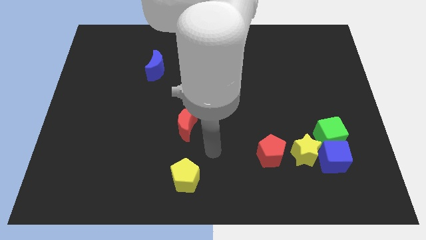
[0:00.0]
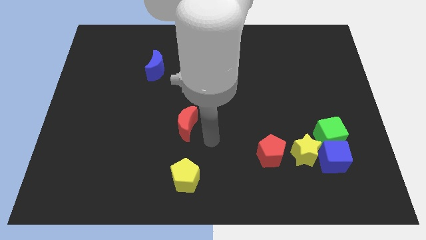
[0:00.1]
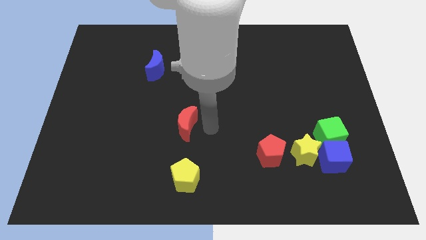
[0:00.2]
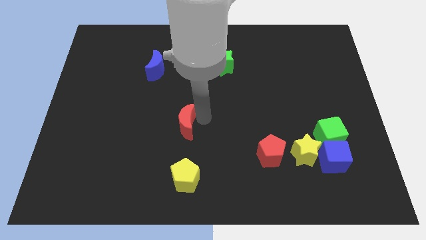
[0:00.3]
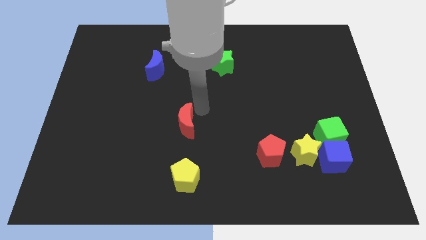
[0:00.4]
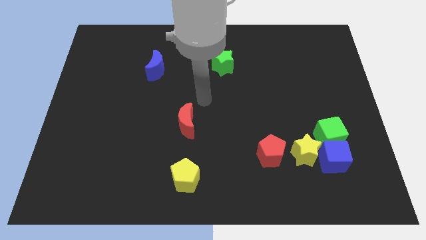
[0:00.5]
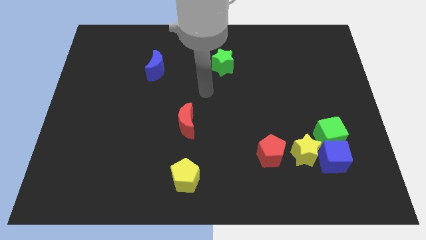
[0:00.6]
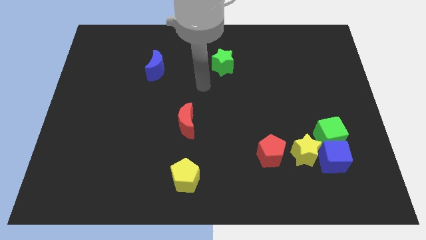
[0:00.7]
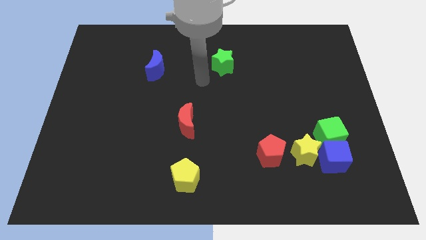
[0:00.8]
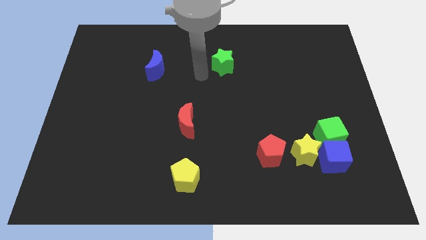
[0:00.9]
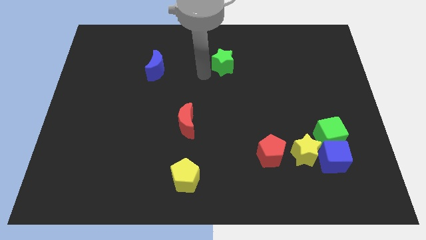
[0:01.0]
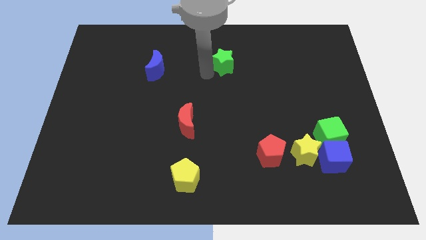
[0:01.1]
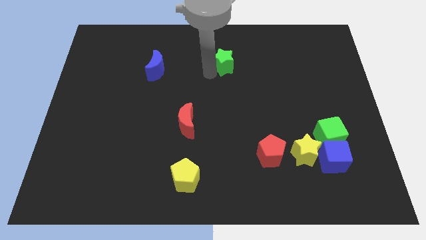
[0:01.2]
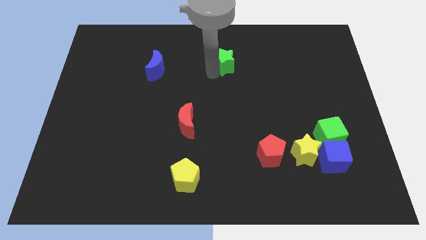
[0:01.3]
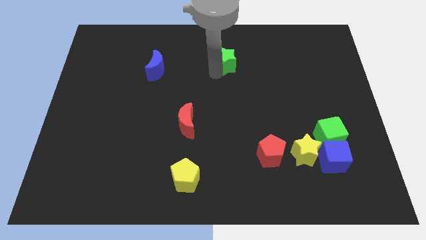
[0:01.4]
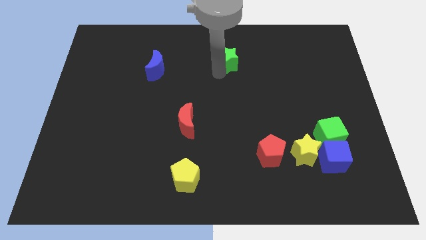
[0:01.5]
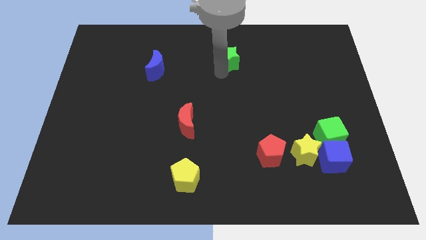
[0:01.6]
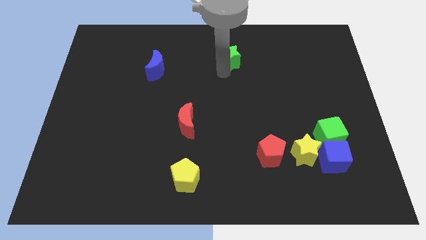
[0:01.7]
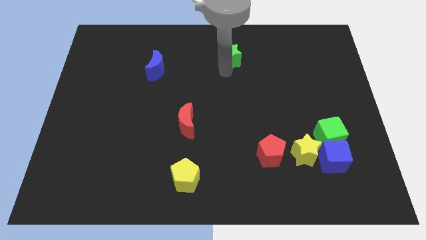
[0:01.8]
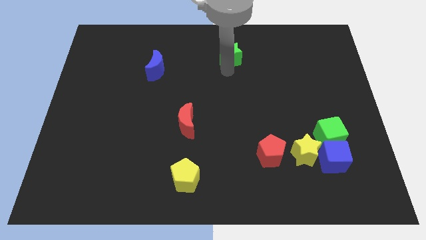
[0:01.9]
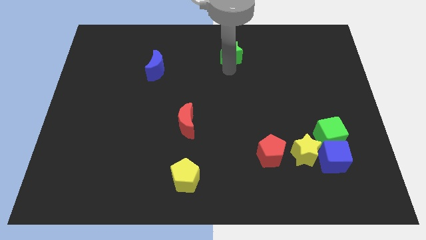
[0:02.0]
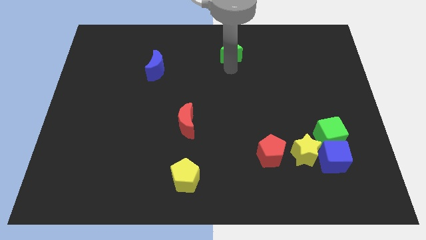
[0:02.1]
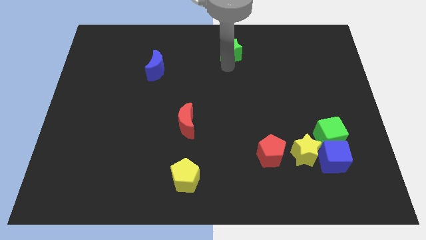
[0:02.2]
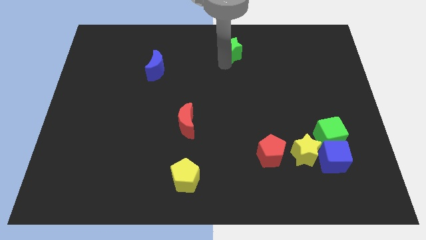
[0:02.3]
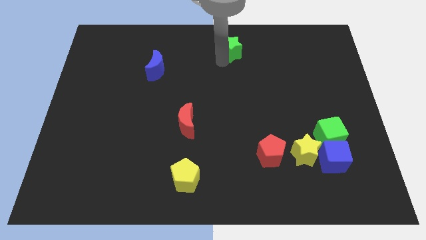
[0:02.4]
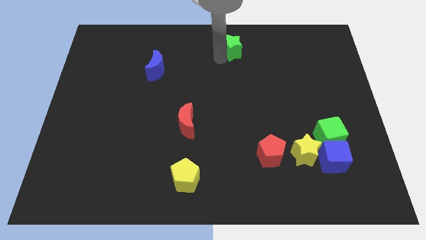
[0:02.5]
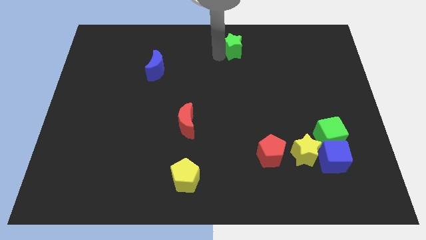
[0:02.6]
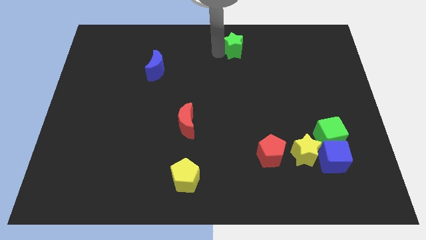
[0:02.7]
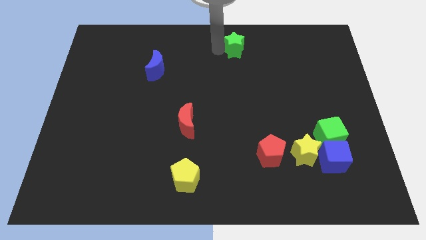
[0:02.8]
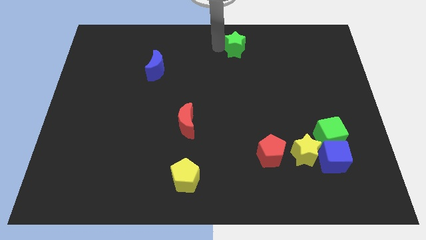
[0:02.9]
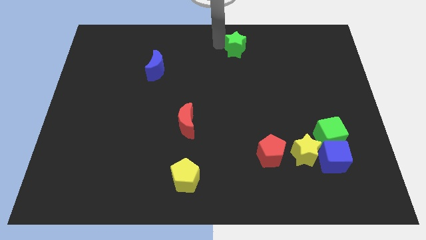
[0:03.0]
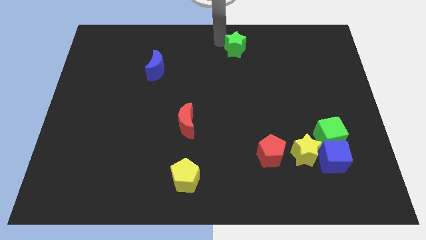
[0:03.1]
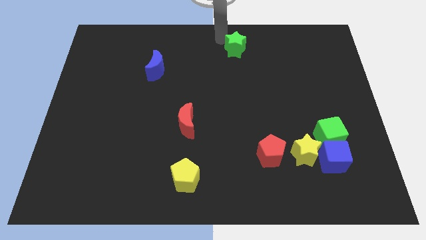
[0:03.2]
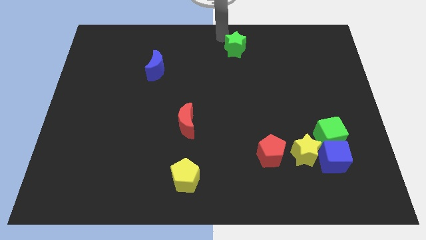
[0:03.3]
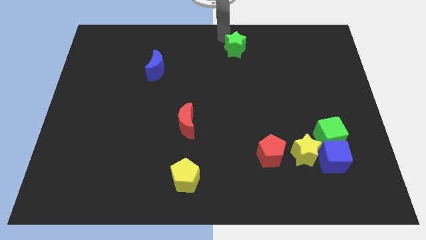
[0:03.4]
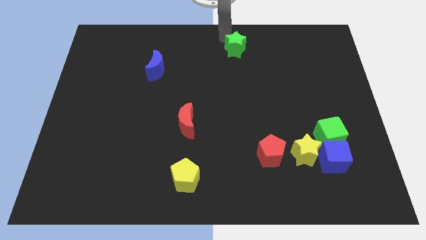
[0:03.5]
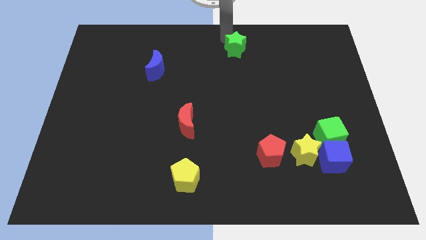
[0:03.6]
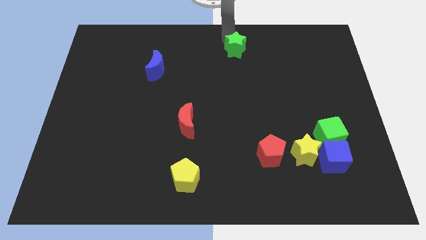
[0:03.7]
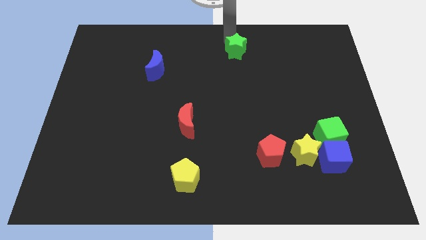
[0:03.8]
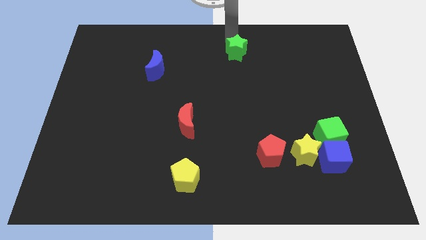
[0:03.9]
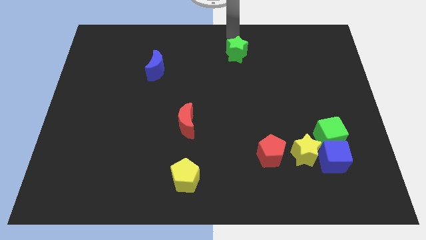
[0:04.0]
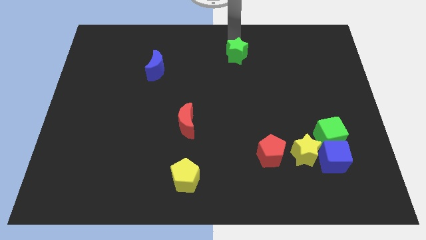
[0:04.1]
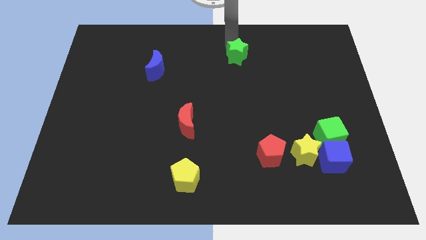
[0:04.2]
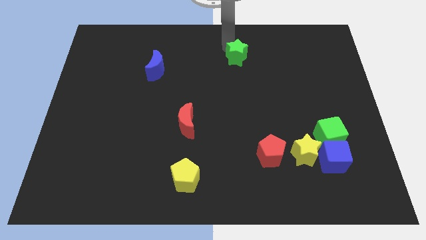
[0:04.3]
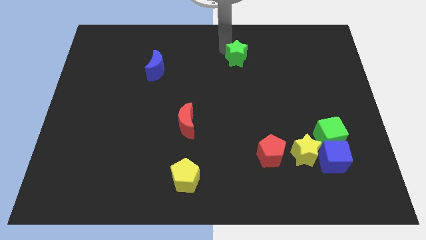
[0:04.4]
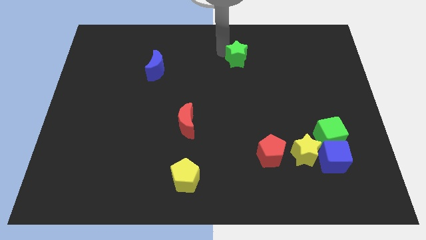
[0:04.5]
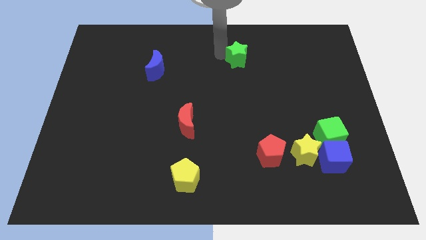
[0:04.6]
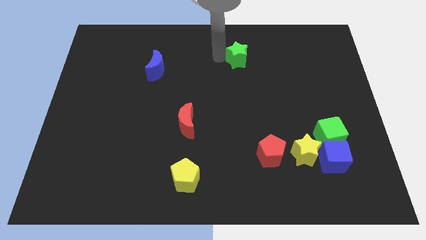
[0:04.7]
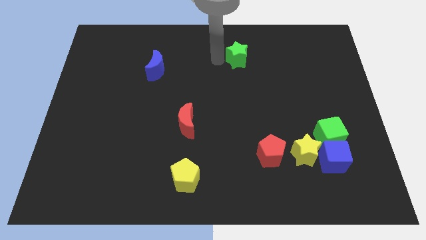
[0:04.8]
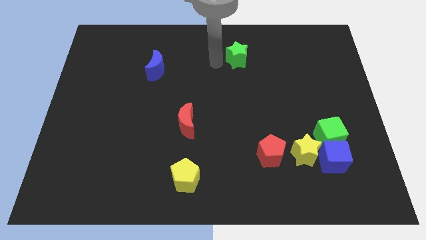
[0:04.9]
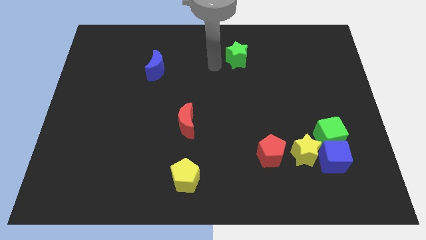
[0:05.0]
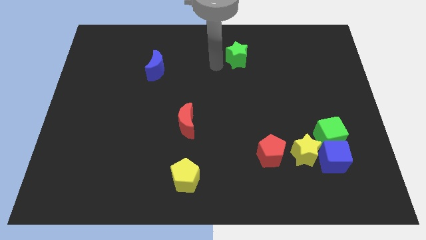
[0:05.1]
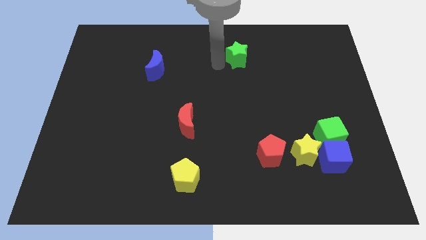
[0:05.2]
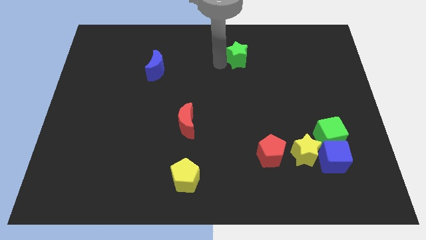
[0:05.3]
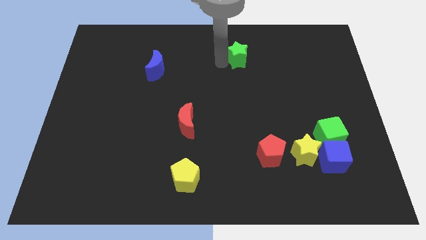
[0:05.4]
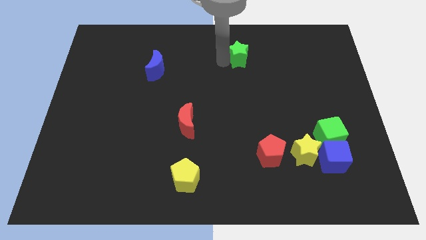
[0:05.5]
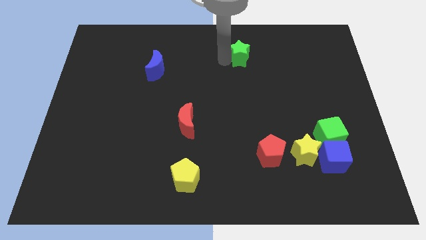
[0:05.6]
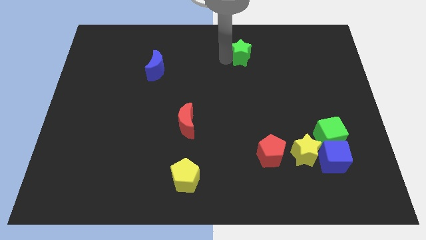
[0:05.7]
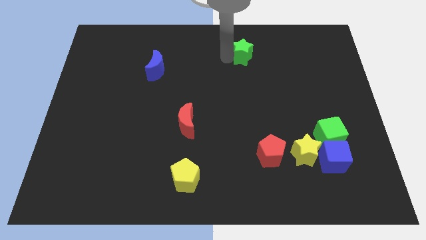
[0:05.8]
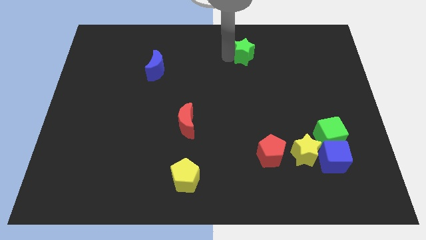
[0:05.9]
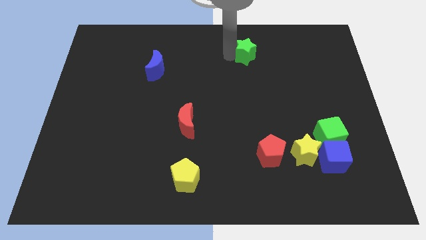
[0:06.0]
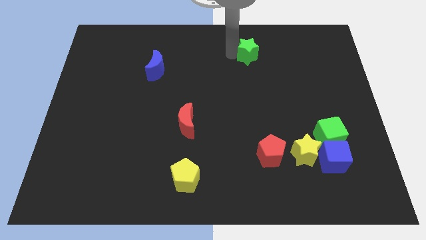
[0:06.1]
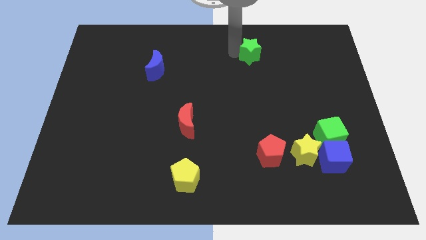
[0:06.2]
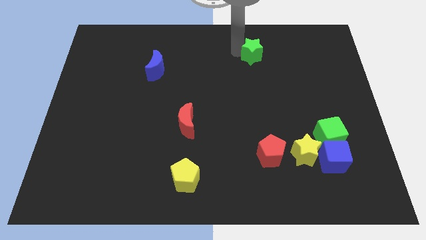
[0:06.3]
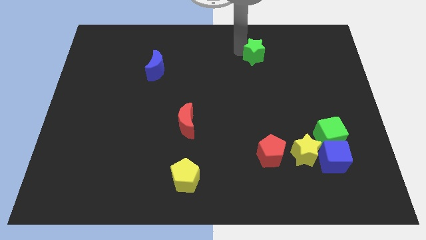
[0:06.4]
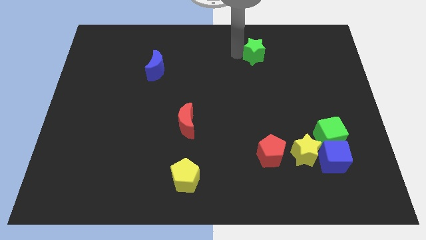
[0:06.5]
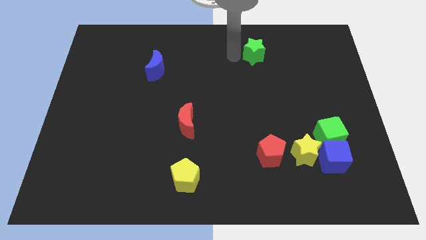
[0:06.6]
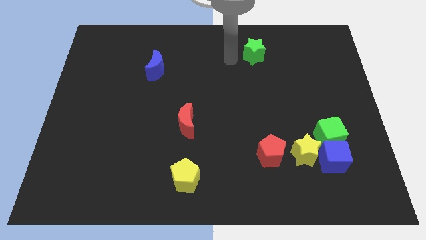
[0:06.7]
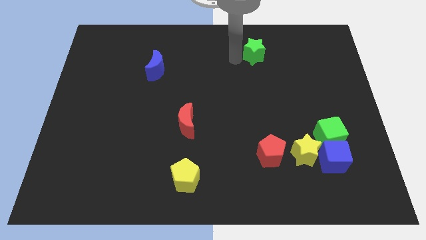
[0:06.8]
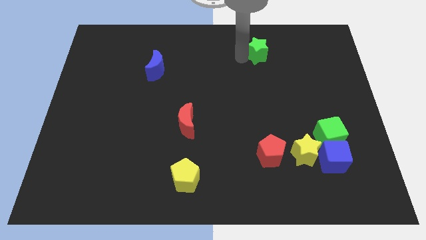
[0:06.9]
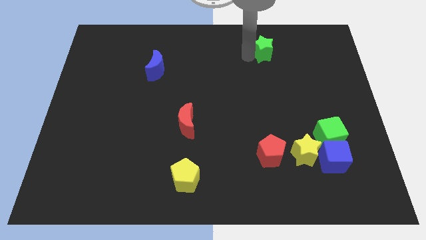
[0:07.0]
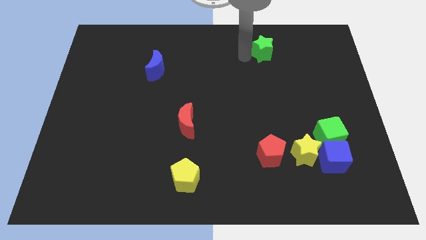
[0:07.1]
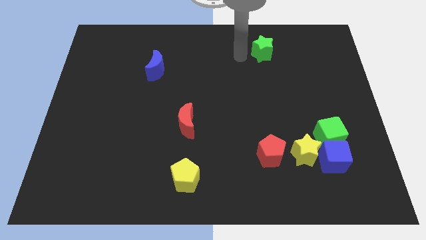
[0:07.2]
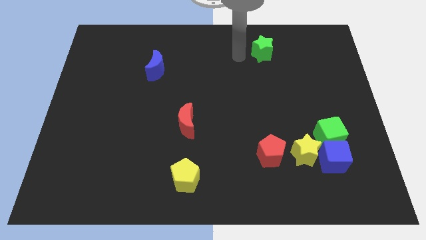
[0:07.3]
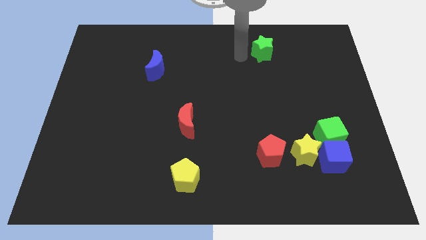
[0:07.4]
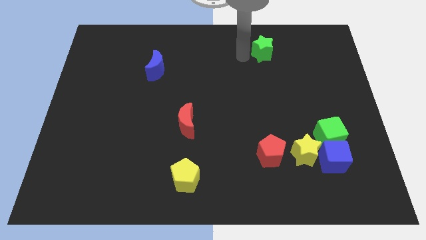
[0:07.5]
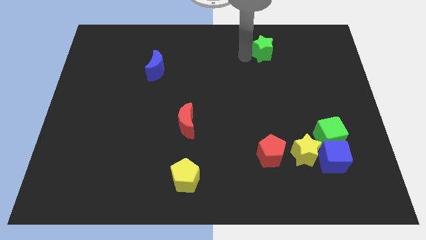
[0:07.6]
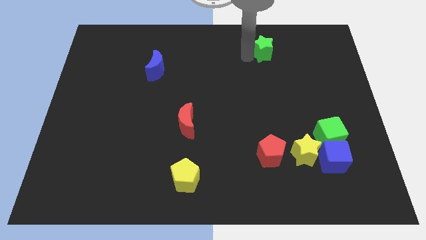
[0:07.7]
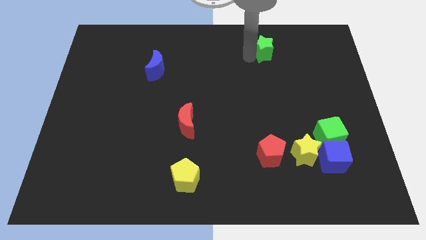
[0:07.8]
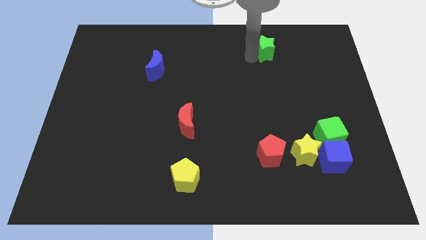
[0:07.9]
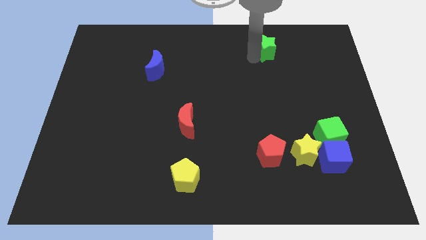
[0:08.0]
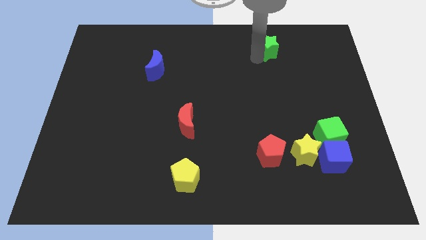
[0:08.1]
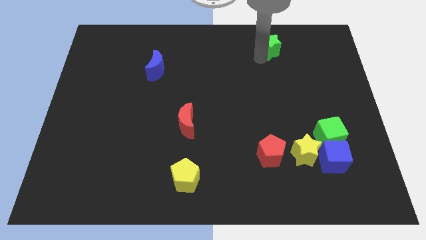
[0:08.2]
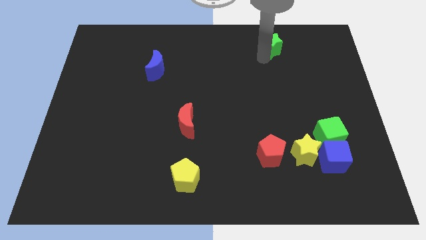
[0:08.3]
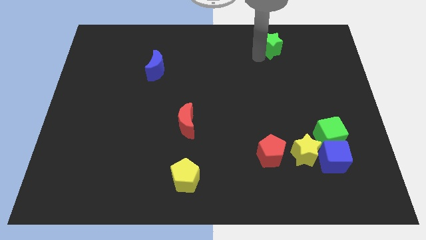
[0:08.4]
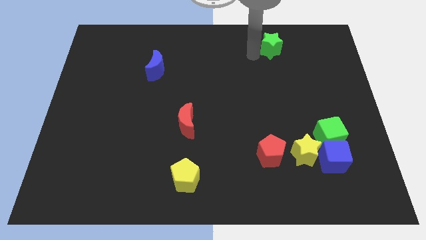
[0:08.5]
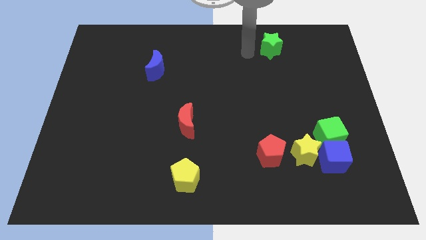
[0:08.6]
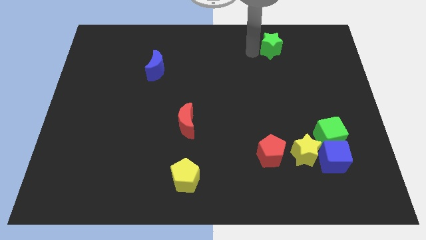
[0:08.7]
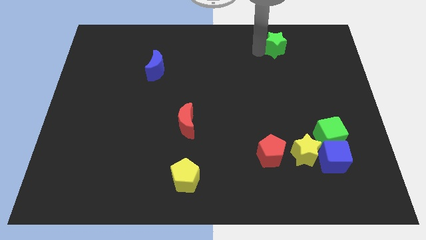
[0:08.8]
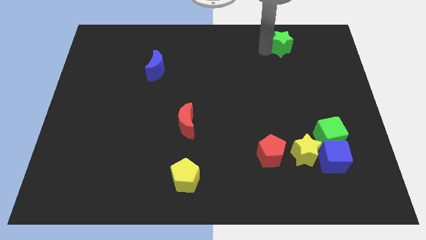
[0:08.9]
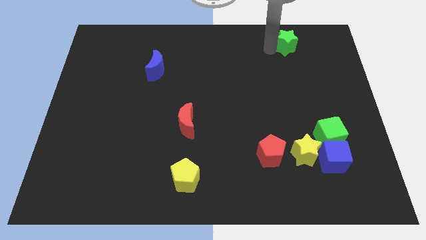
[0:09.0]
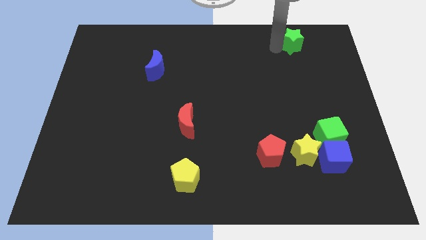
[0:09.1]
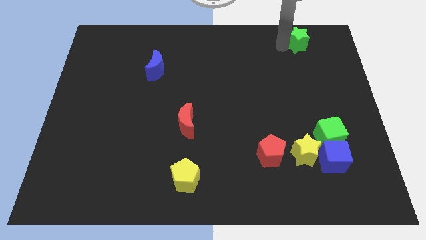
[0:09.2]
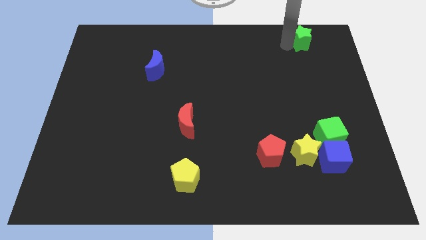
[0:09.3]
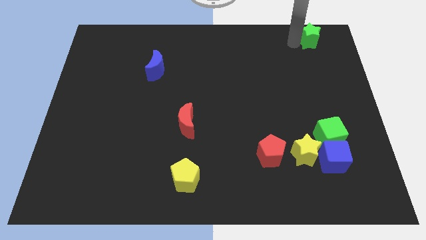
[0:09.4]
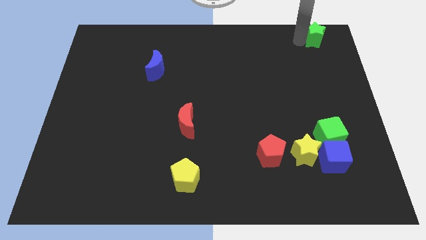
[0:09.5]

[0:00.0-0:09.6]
move the green star to the top right of the board
